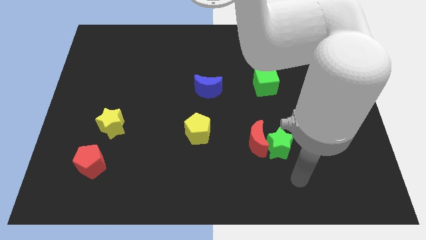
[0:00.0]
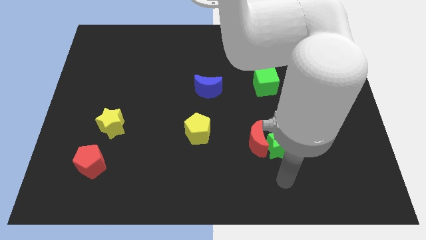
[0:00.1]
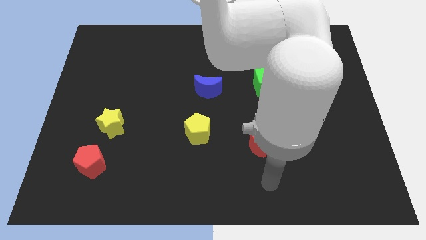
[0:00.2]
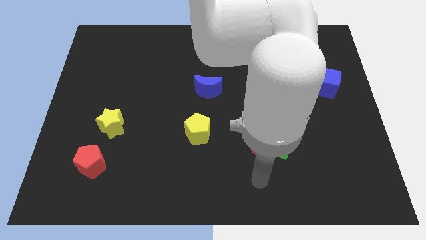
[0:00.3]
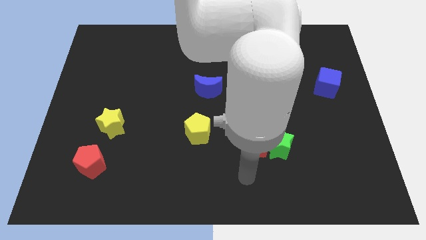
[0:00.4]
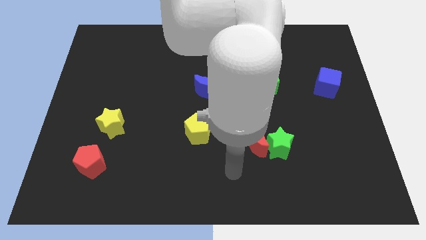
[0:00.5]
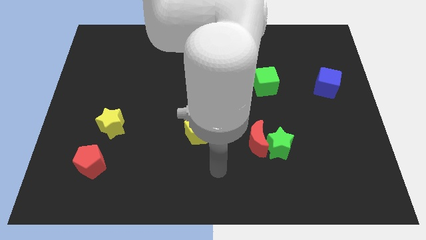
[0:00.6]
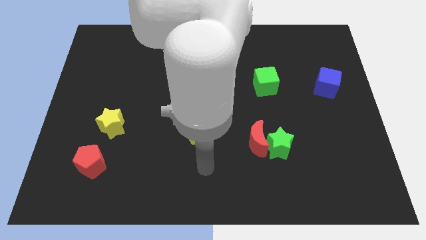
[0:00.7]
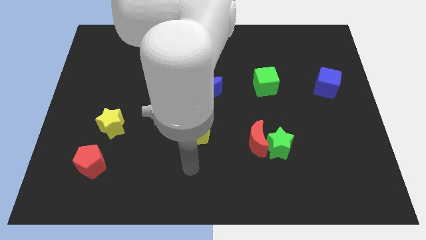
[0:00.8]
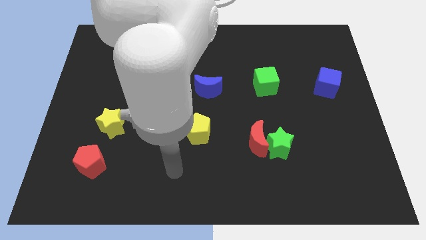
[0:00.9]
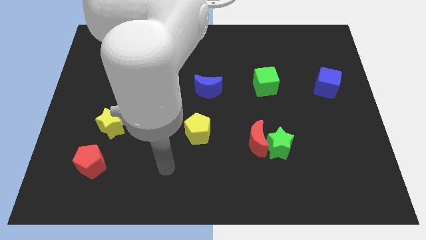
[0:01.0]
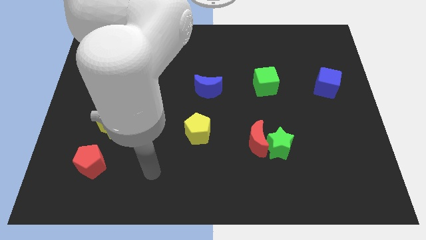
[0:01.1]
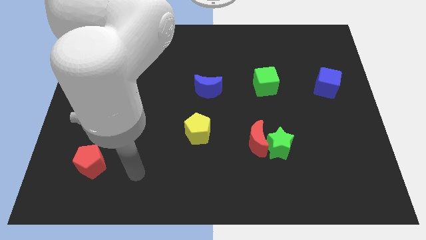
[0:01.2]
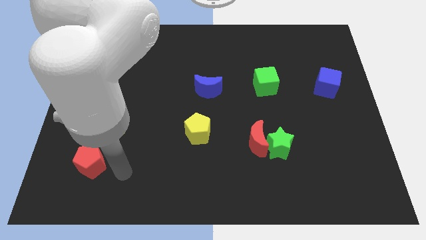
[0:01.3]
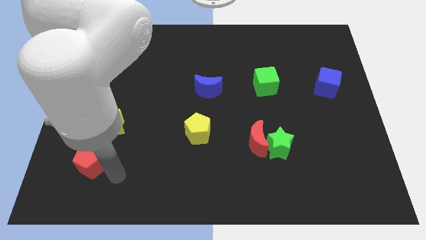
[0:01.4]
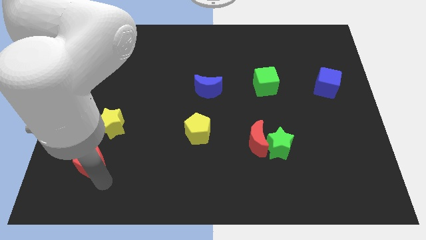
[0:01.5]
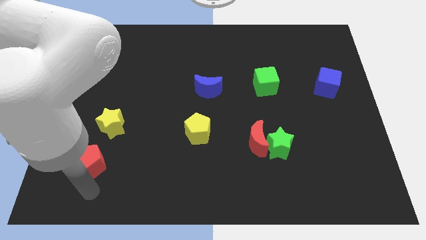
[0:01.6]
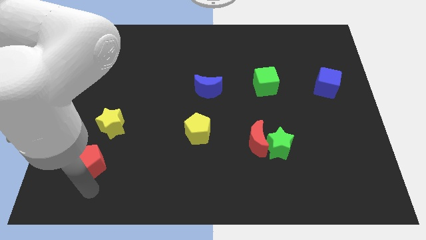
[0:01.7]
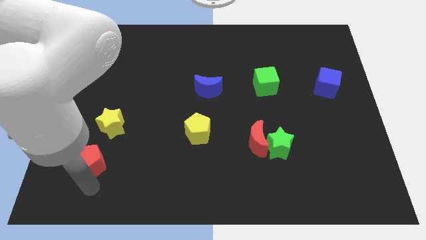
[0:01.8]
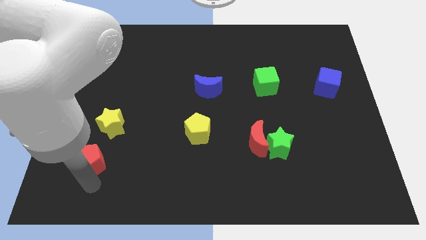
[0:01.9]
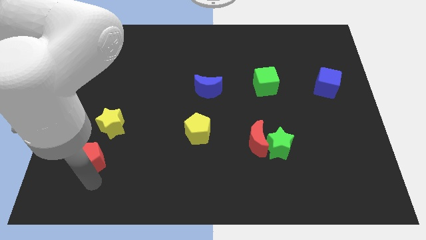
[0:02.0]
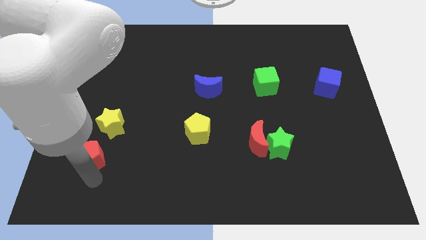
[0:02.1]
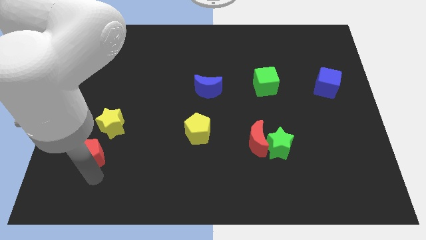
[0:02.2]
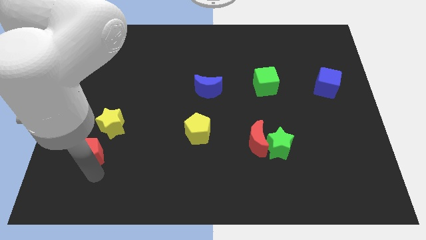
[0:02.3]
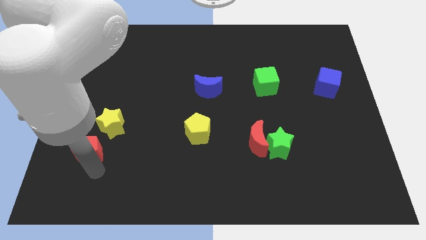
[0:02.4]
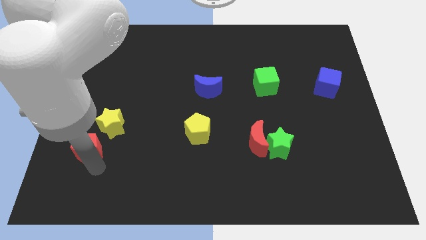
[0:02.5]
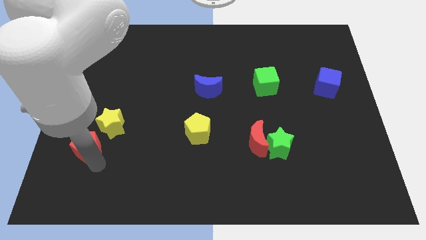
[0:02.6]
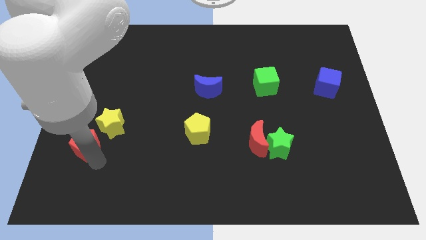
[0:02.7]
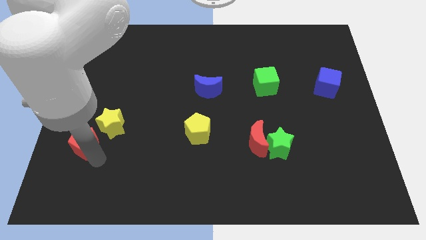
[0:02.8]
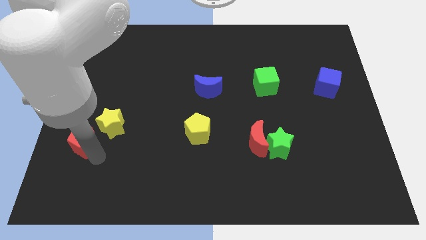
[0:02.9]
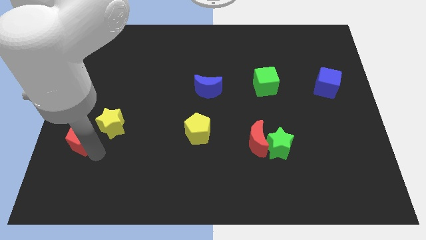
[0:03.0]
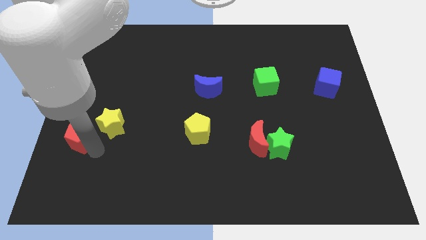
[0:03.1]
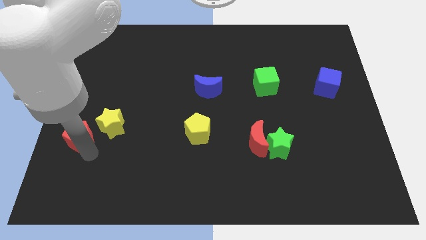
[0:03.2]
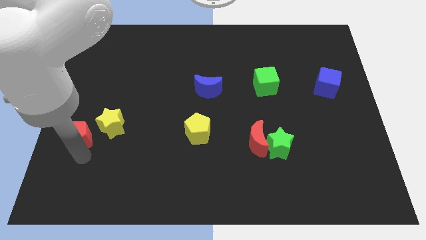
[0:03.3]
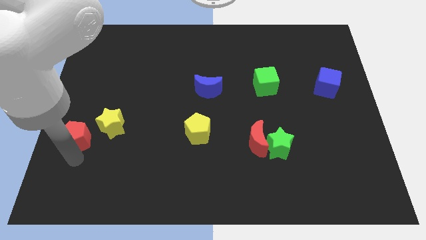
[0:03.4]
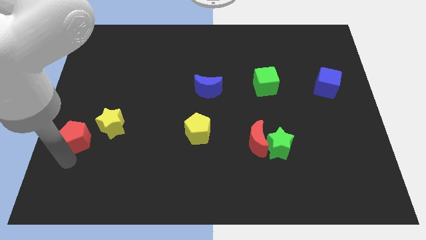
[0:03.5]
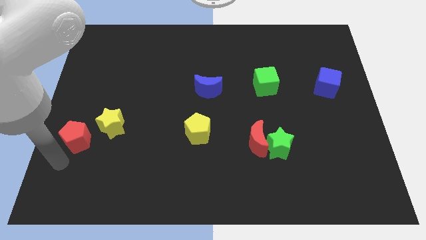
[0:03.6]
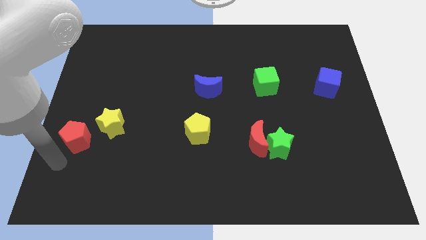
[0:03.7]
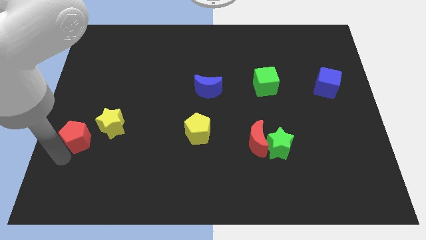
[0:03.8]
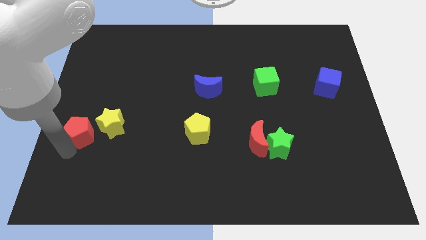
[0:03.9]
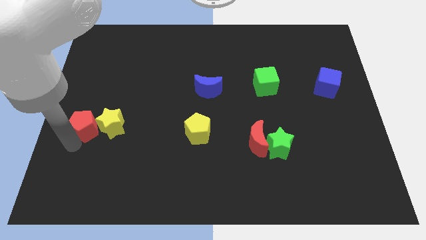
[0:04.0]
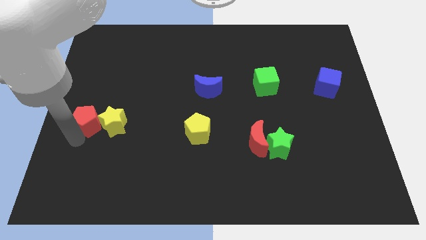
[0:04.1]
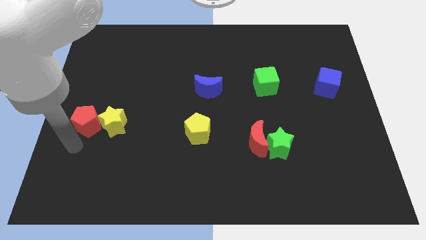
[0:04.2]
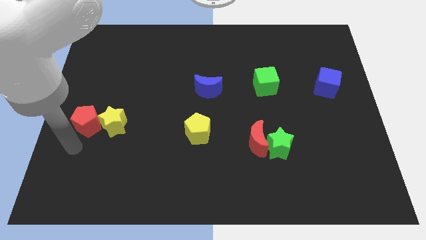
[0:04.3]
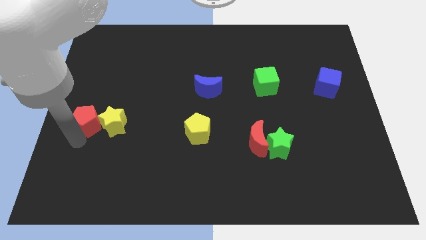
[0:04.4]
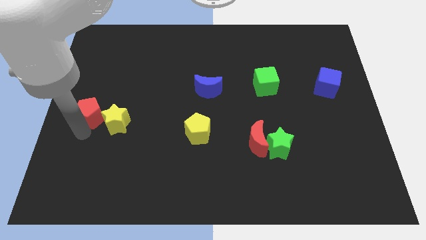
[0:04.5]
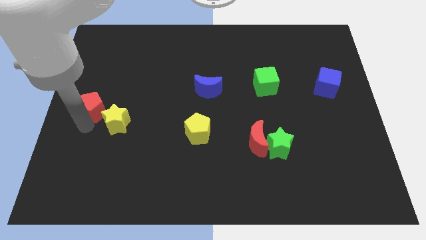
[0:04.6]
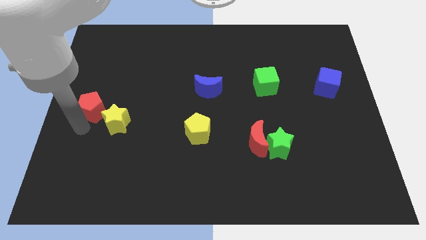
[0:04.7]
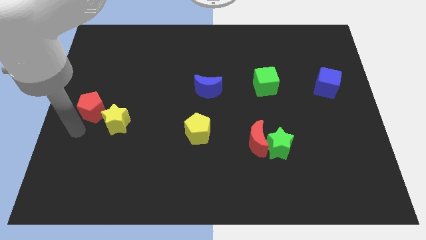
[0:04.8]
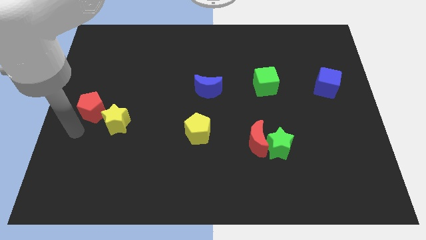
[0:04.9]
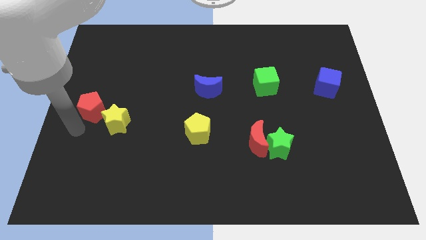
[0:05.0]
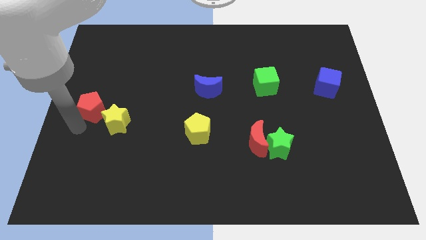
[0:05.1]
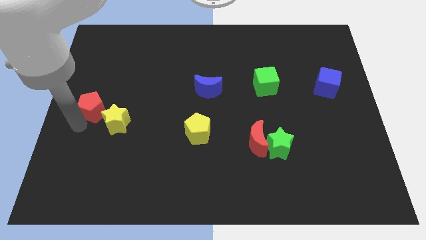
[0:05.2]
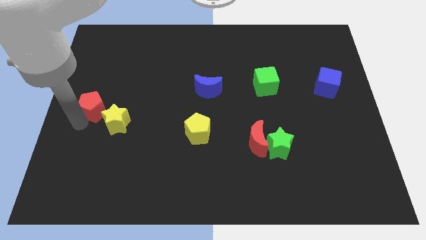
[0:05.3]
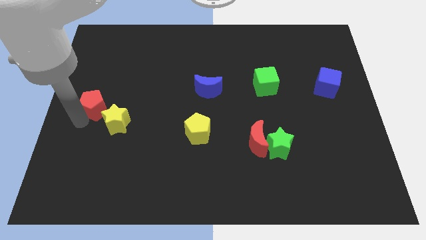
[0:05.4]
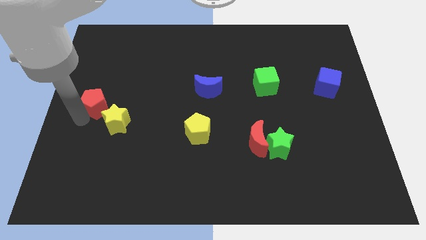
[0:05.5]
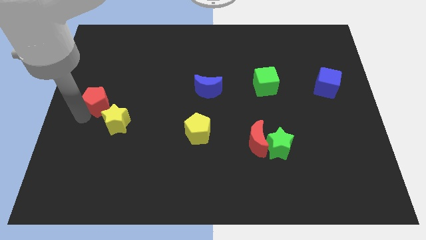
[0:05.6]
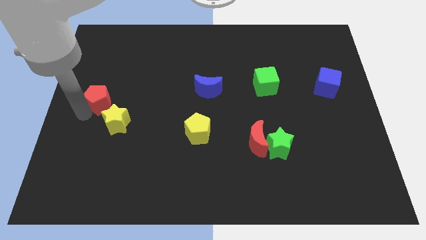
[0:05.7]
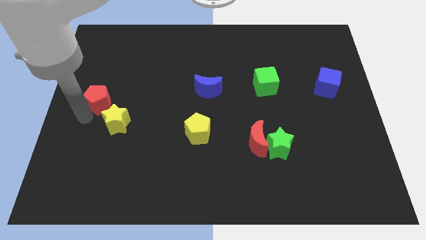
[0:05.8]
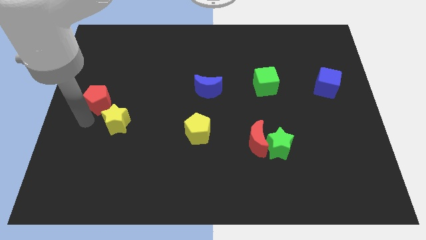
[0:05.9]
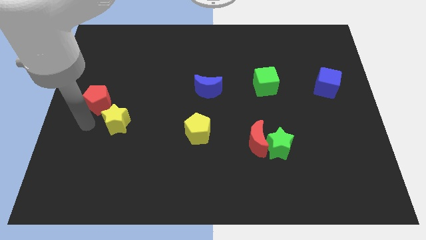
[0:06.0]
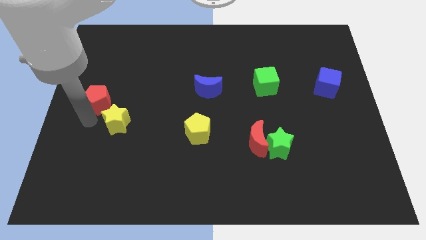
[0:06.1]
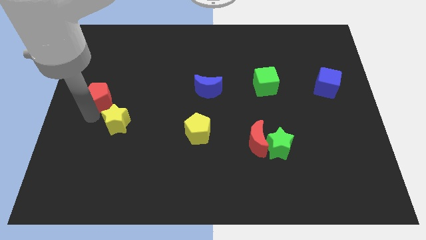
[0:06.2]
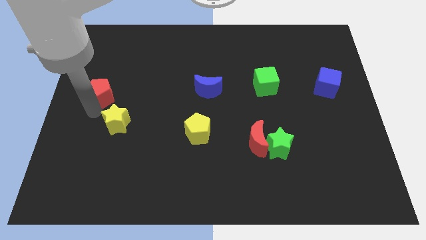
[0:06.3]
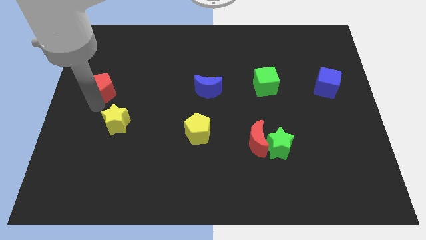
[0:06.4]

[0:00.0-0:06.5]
slide the red pentagon upwards

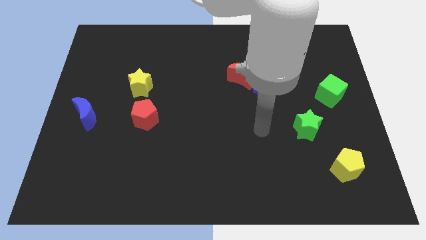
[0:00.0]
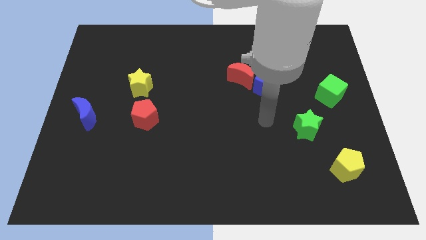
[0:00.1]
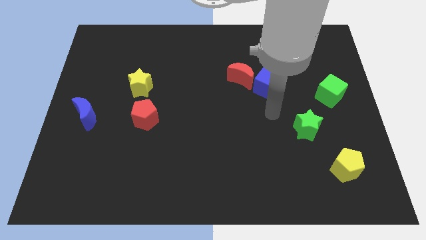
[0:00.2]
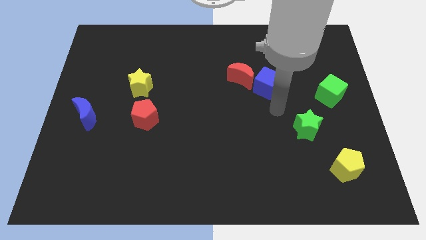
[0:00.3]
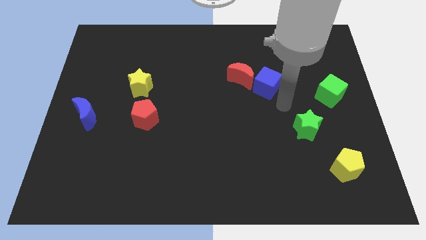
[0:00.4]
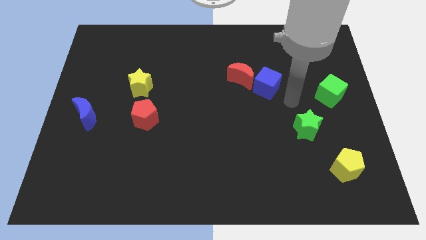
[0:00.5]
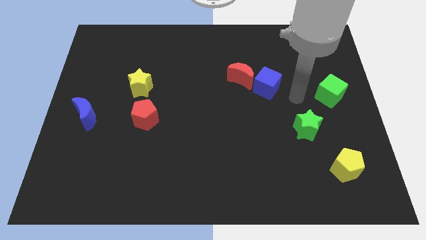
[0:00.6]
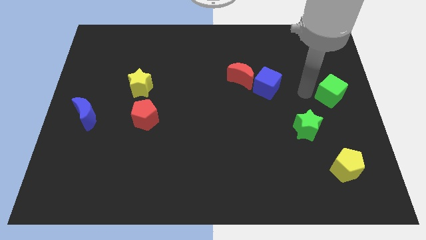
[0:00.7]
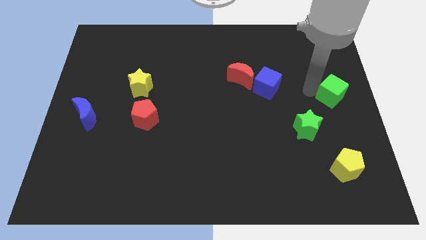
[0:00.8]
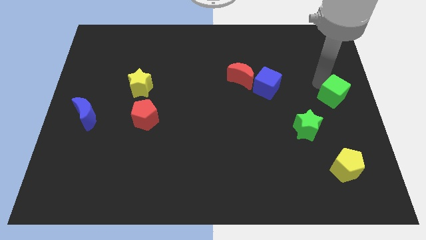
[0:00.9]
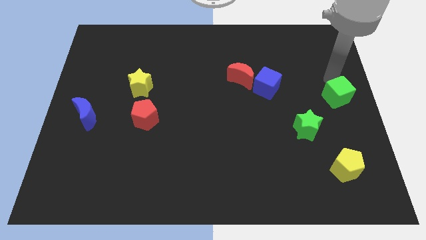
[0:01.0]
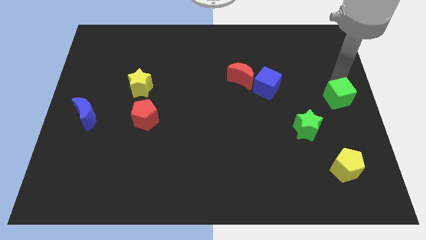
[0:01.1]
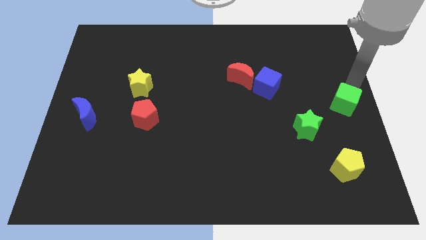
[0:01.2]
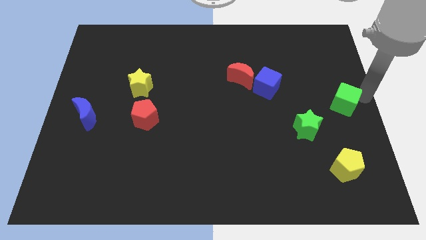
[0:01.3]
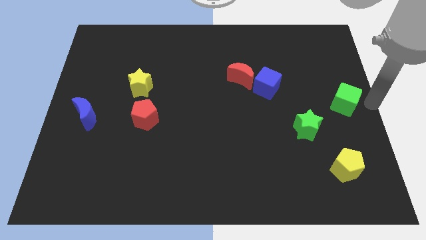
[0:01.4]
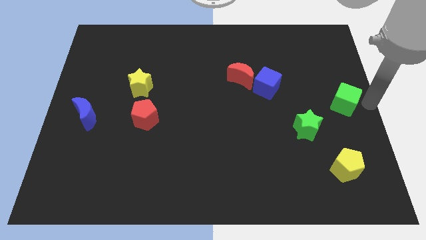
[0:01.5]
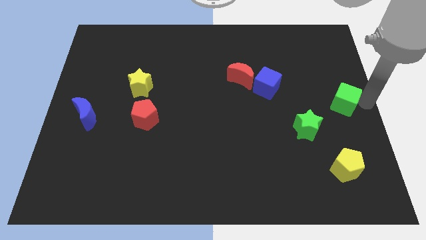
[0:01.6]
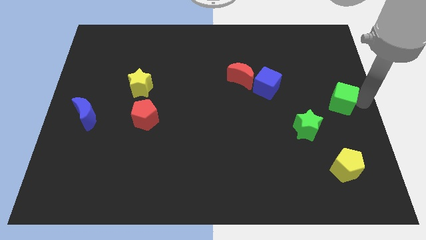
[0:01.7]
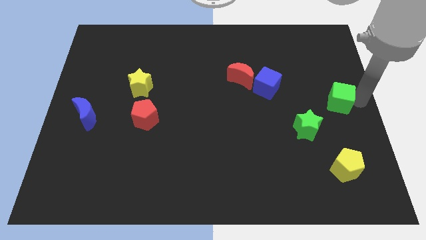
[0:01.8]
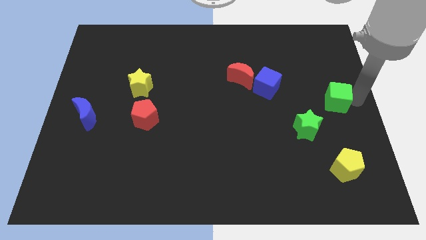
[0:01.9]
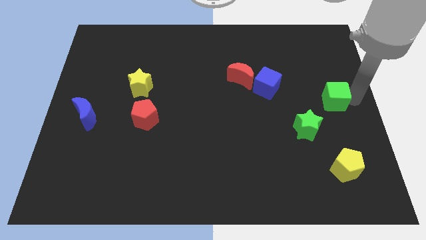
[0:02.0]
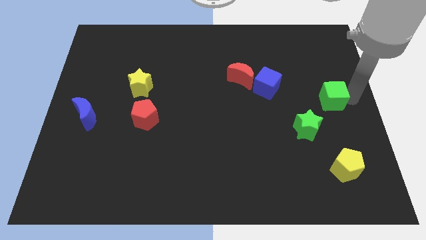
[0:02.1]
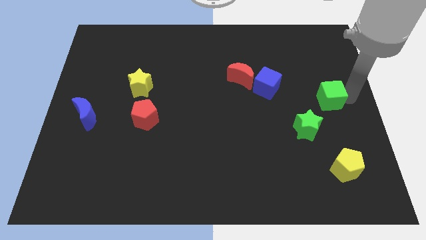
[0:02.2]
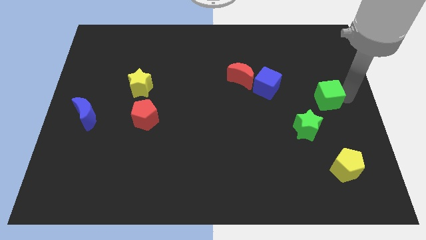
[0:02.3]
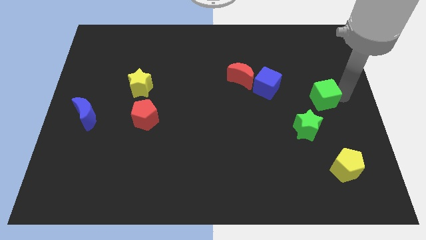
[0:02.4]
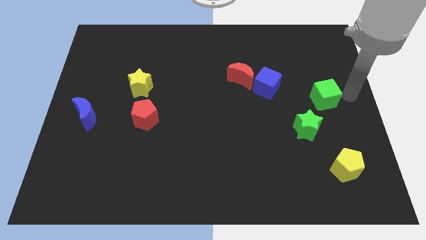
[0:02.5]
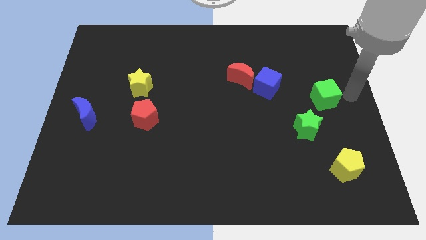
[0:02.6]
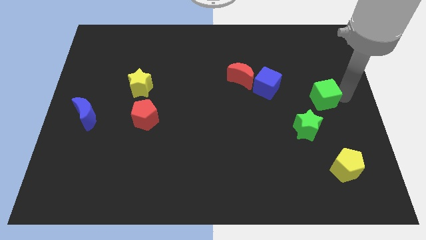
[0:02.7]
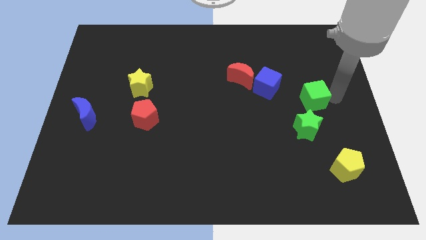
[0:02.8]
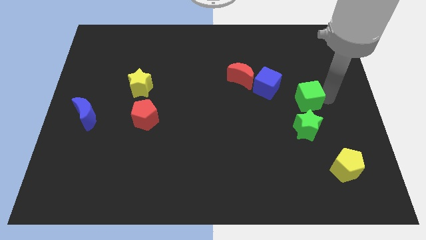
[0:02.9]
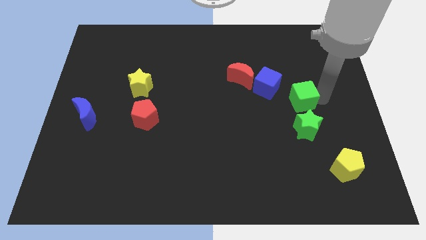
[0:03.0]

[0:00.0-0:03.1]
slide the green cube to the left slightly
